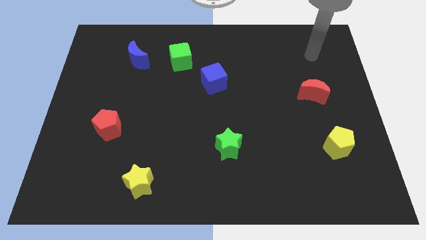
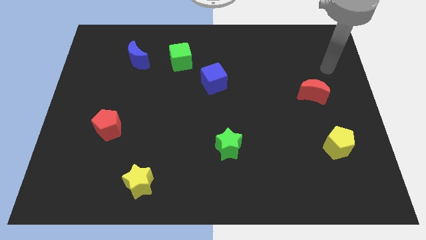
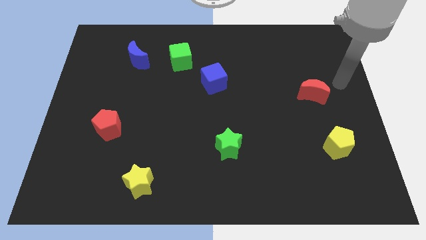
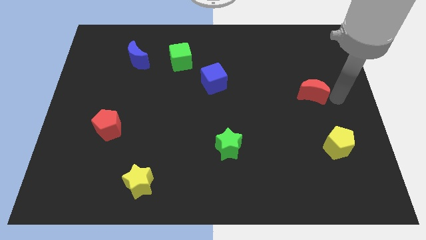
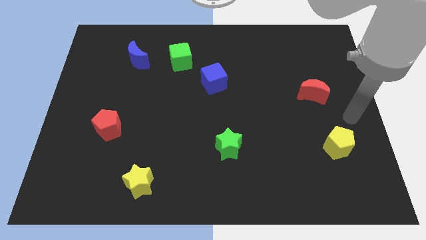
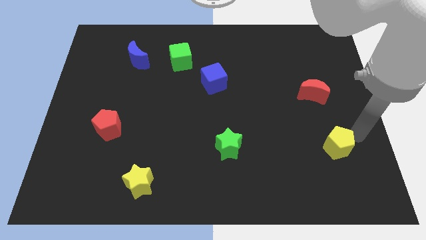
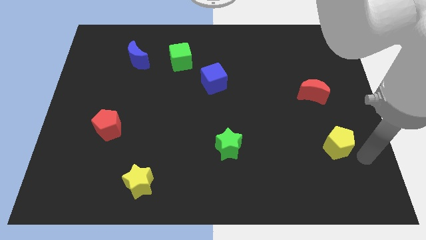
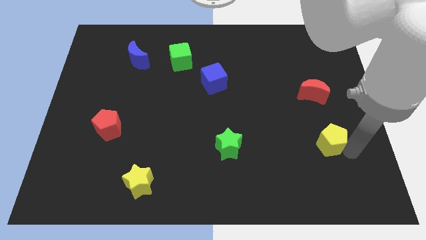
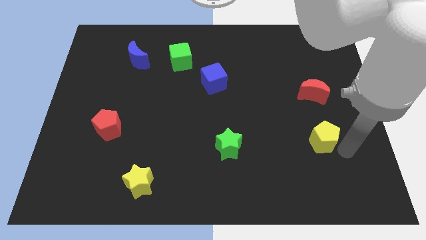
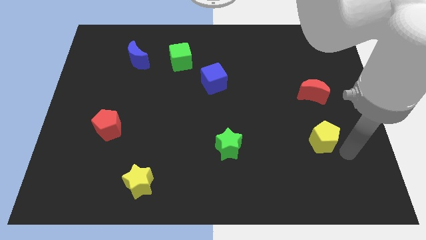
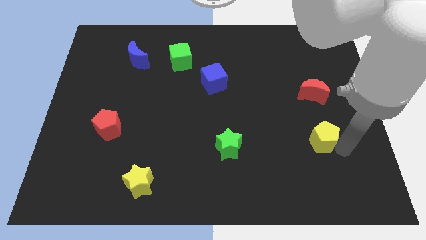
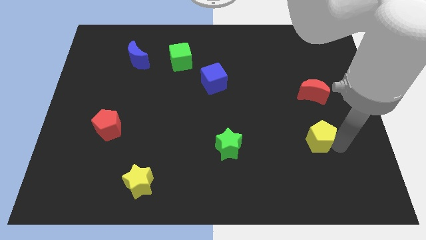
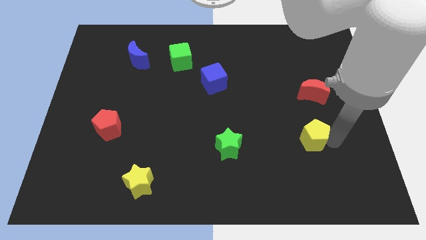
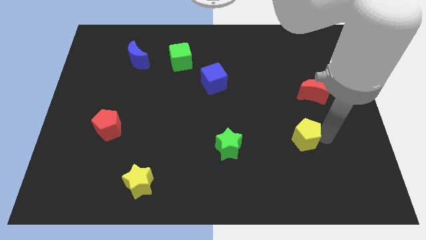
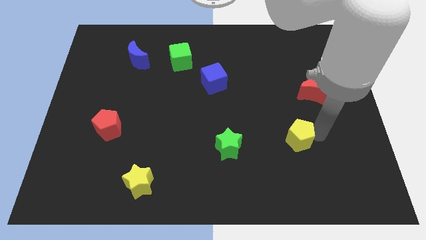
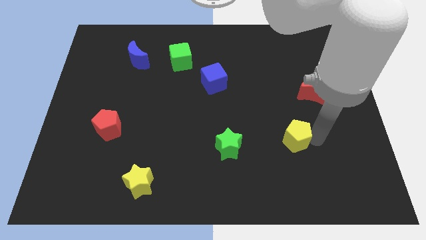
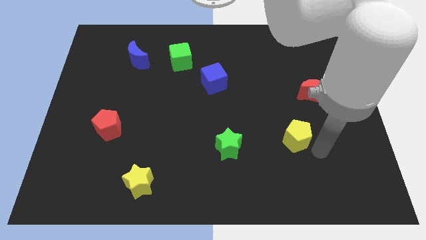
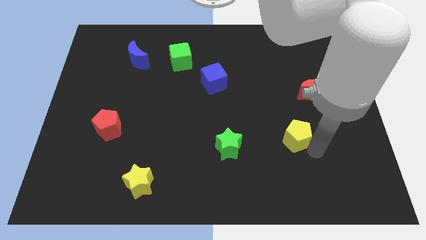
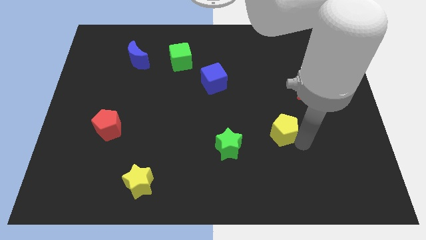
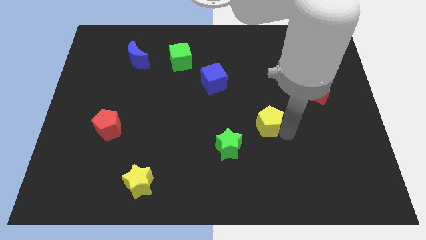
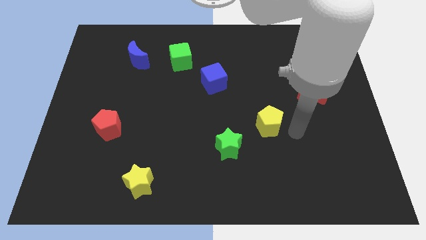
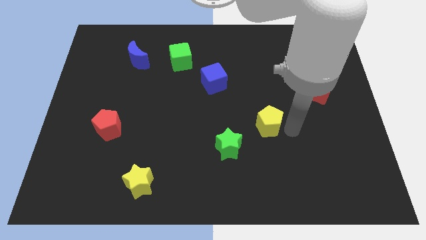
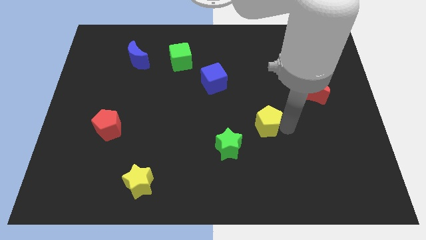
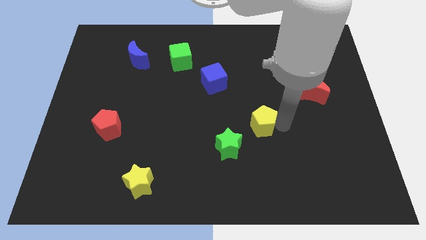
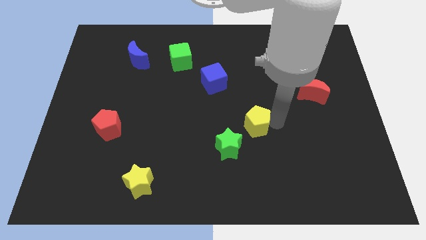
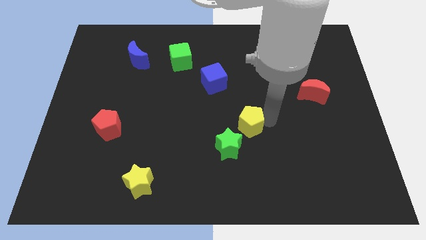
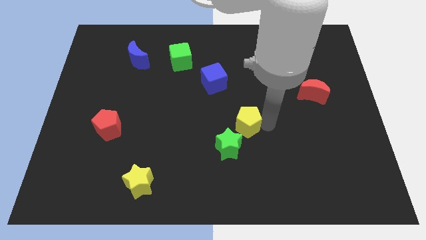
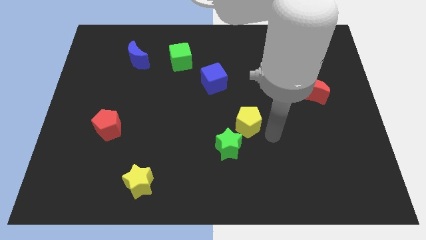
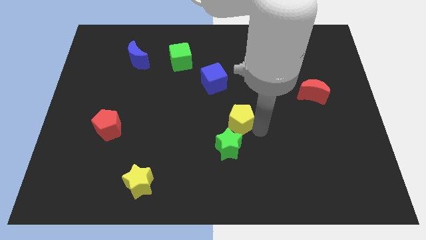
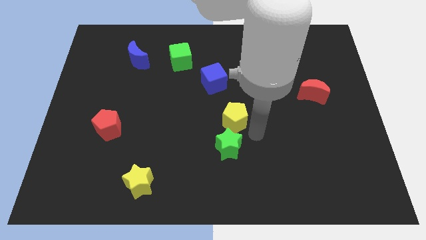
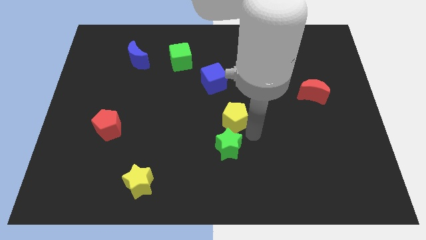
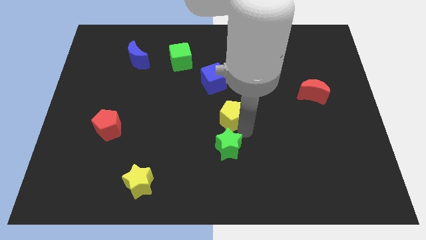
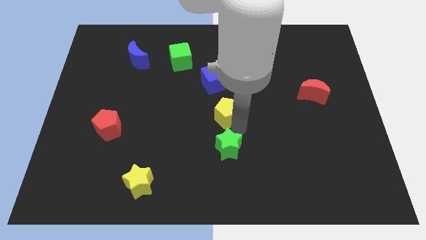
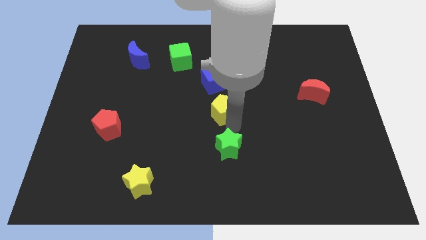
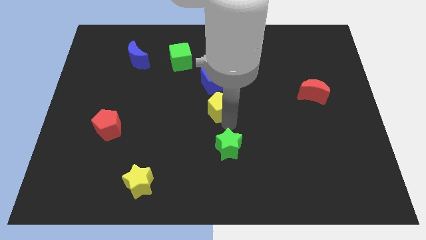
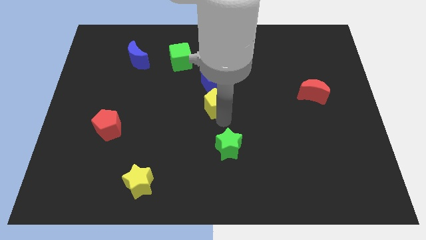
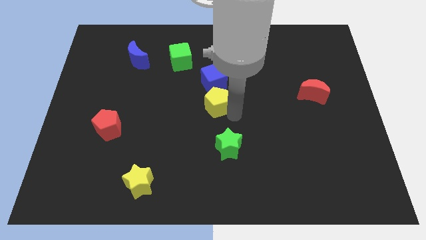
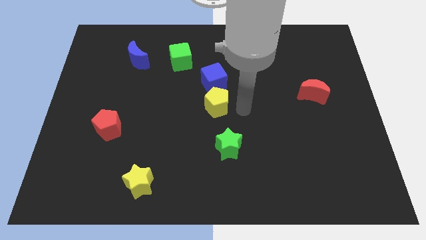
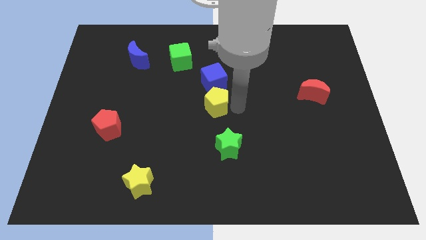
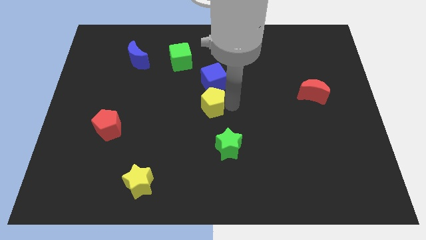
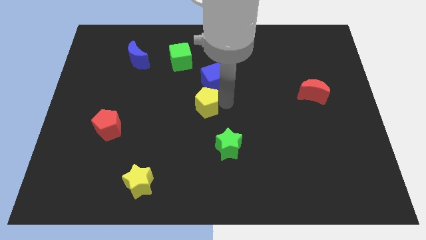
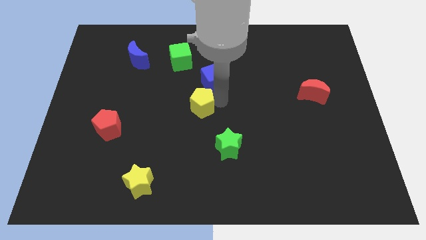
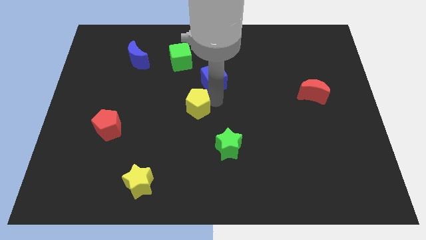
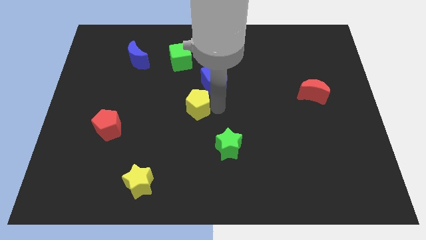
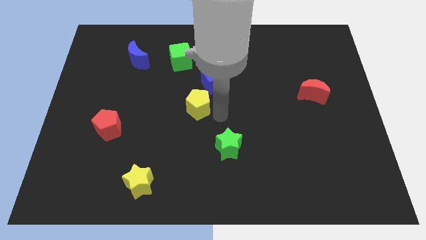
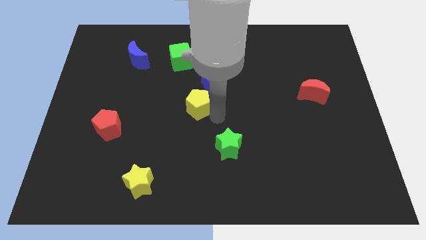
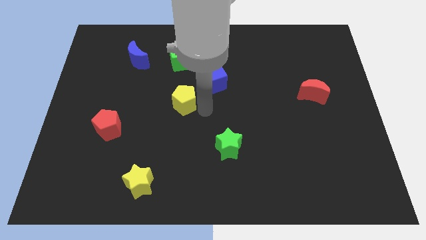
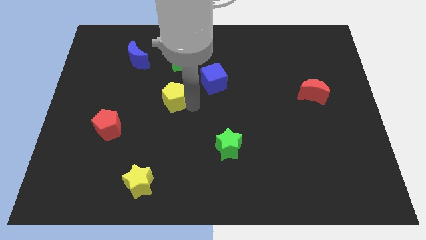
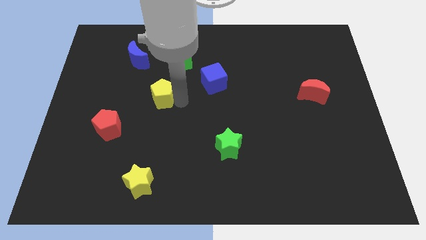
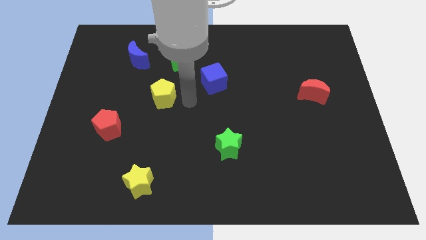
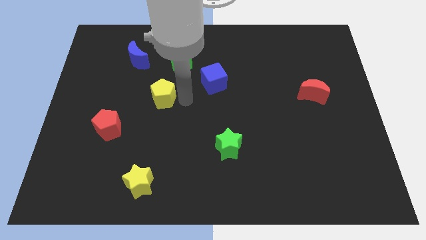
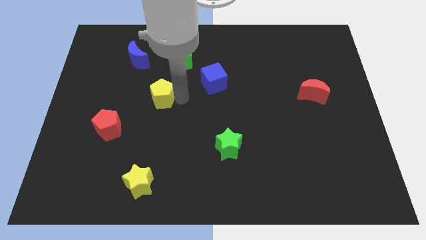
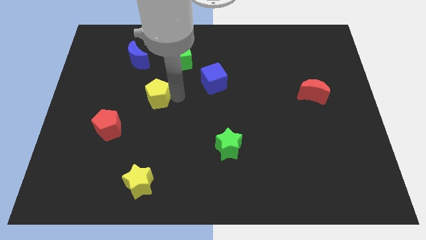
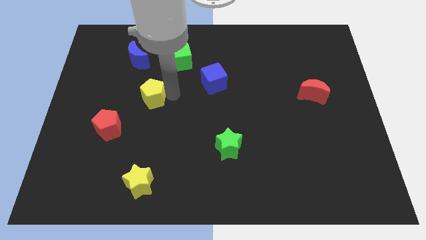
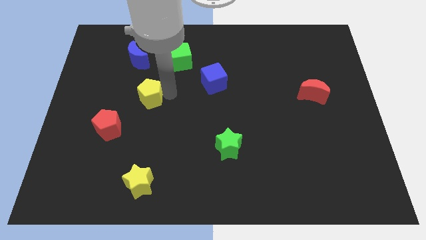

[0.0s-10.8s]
push the yellow pentagon below the blue moon
